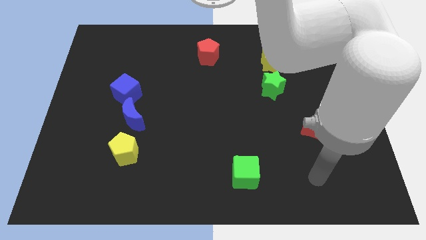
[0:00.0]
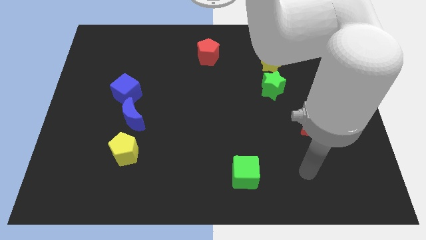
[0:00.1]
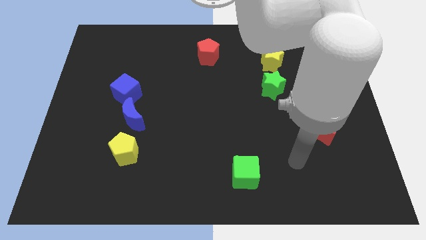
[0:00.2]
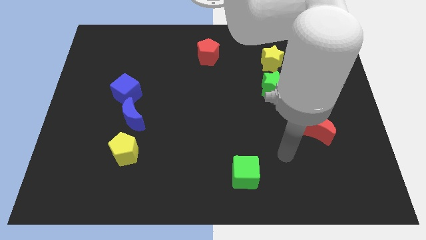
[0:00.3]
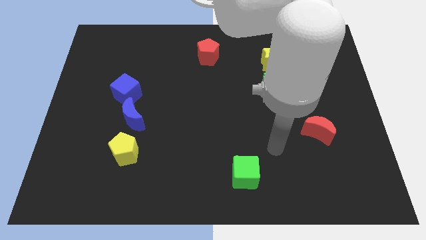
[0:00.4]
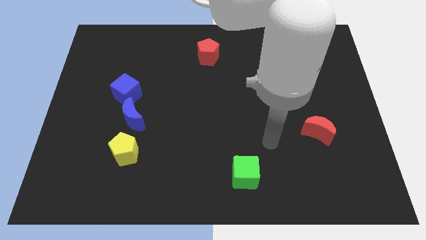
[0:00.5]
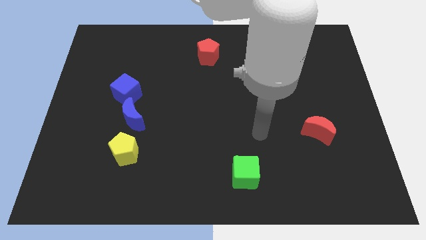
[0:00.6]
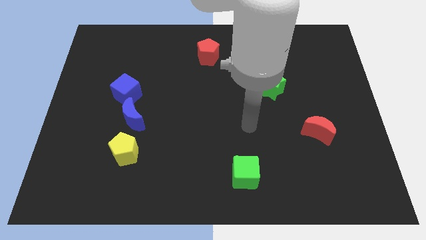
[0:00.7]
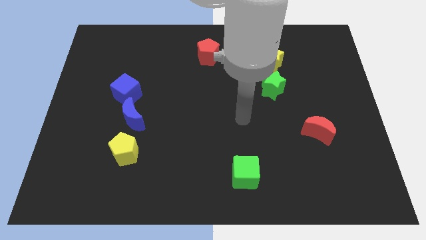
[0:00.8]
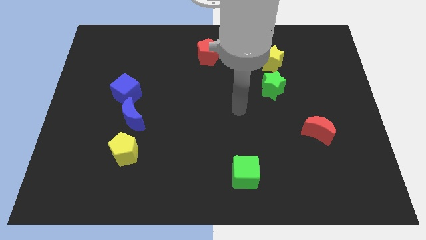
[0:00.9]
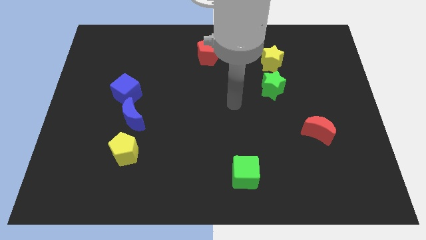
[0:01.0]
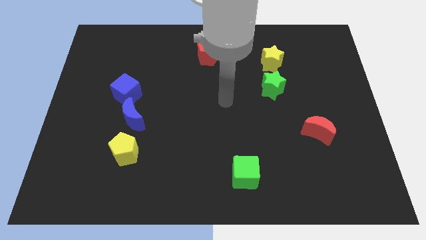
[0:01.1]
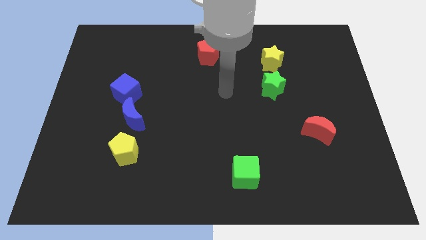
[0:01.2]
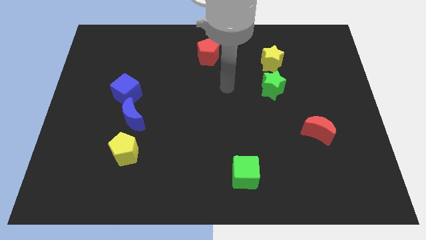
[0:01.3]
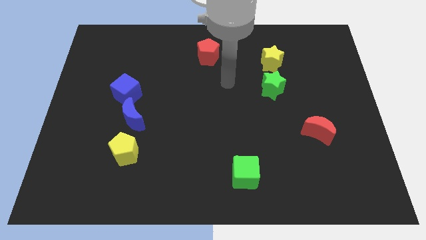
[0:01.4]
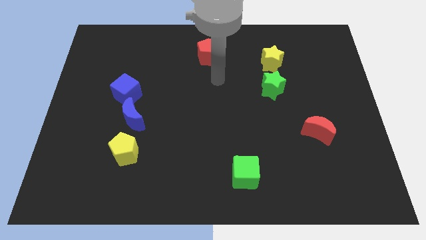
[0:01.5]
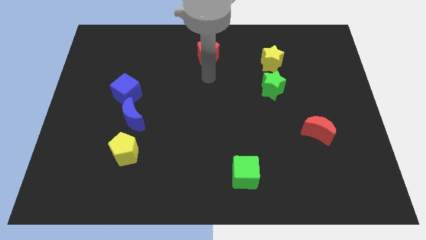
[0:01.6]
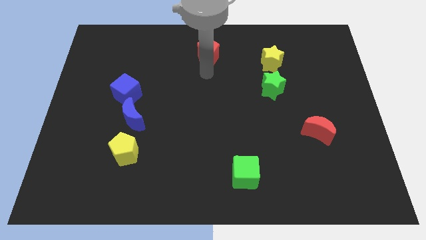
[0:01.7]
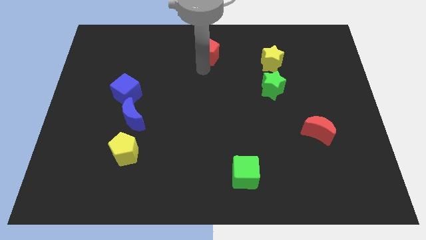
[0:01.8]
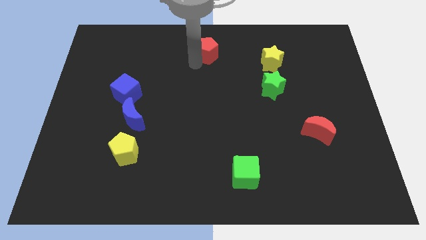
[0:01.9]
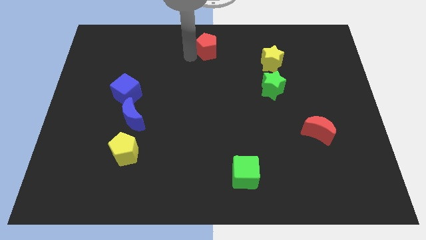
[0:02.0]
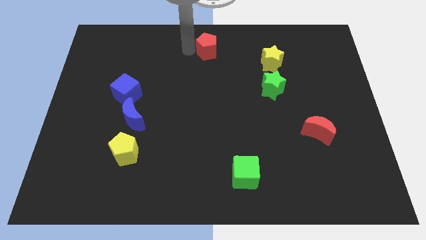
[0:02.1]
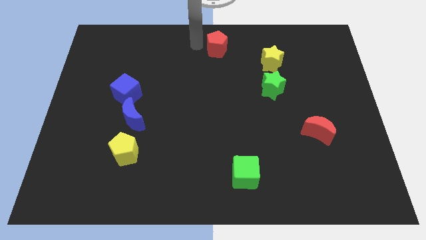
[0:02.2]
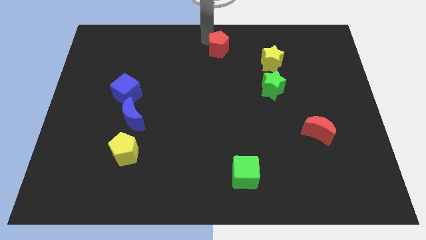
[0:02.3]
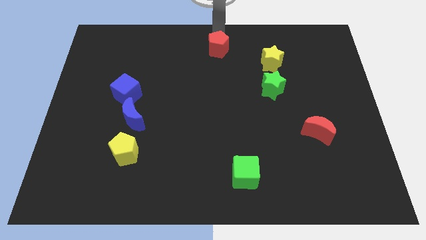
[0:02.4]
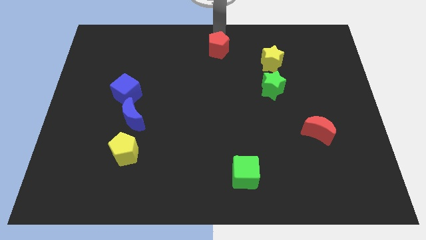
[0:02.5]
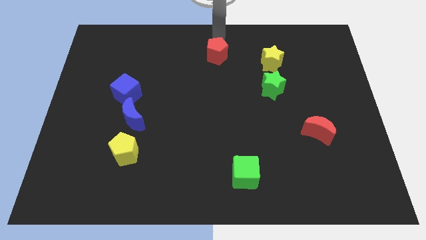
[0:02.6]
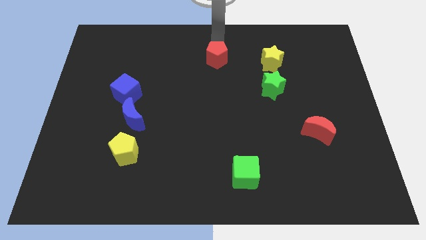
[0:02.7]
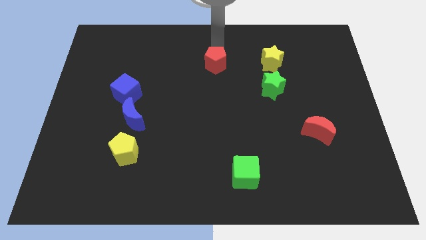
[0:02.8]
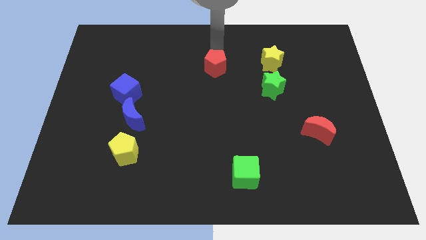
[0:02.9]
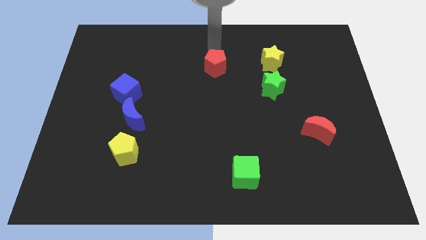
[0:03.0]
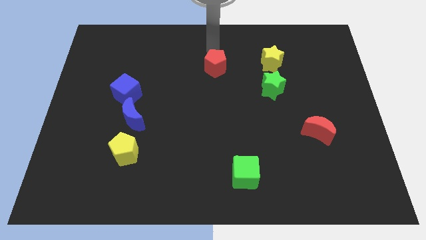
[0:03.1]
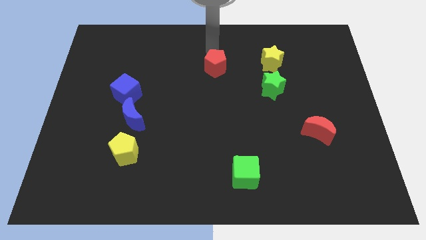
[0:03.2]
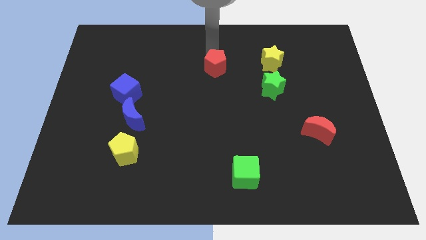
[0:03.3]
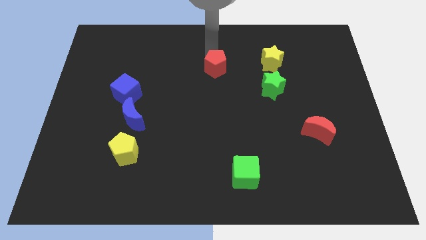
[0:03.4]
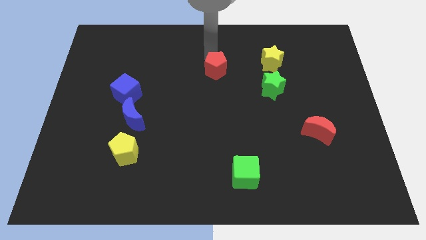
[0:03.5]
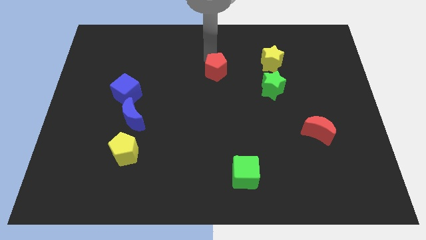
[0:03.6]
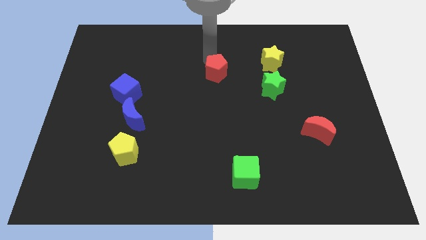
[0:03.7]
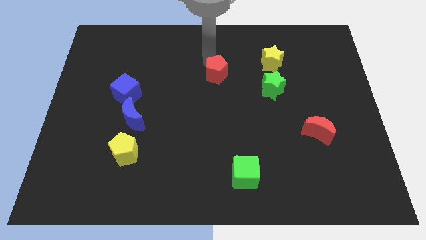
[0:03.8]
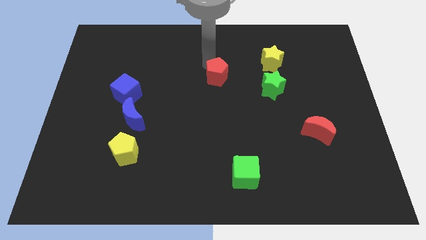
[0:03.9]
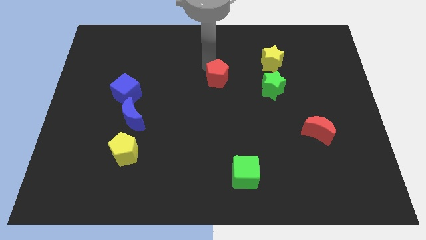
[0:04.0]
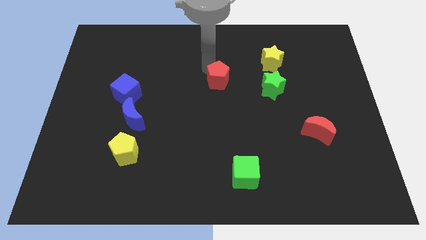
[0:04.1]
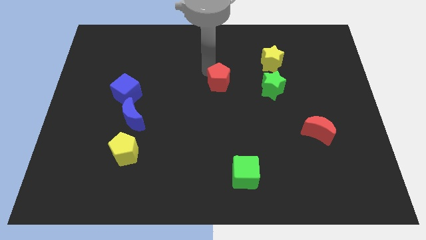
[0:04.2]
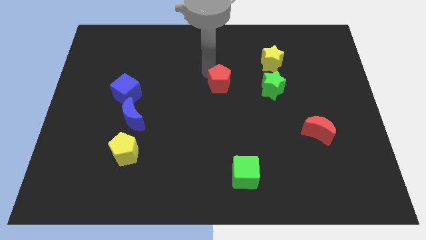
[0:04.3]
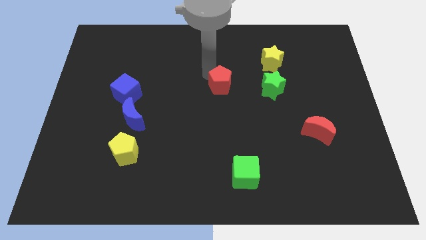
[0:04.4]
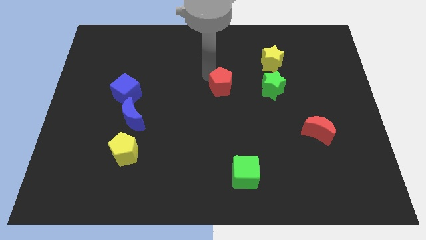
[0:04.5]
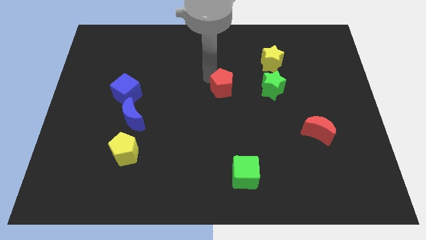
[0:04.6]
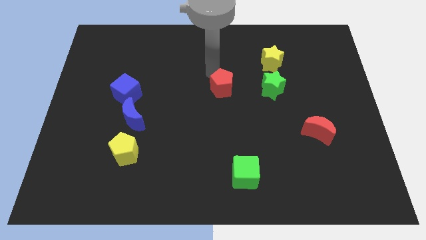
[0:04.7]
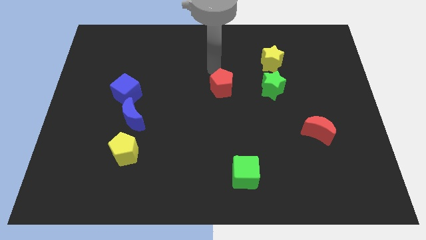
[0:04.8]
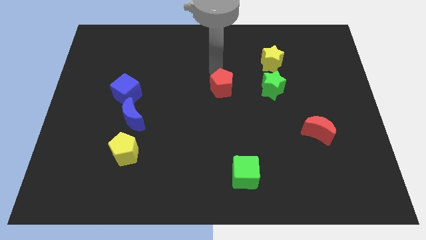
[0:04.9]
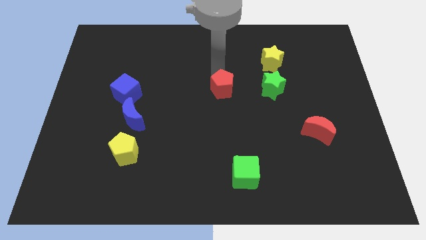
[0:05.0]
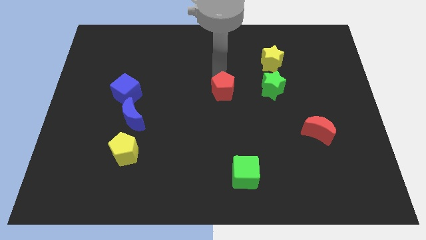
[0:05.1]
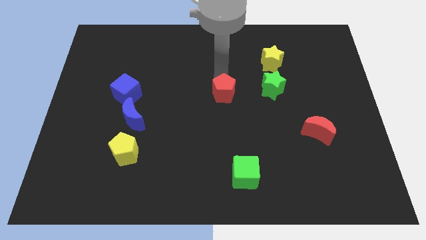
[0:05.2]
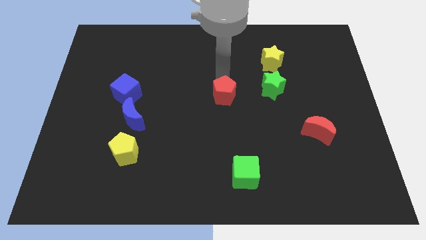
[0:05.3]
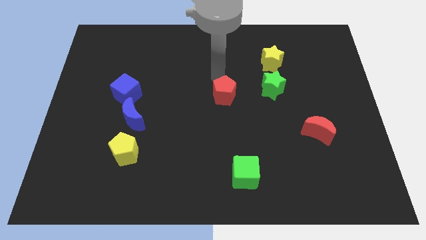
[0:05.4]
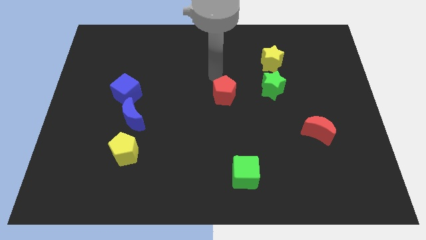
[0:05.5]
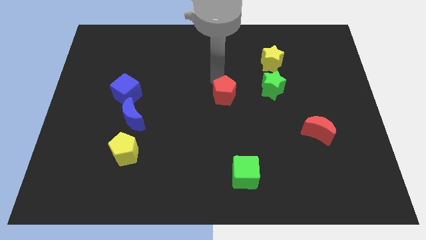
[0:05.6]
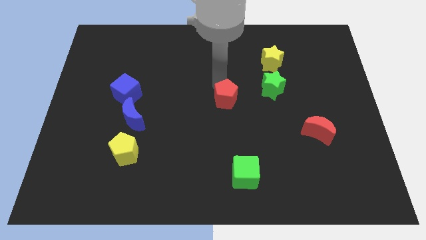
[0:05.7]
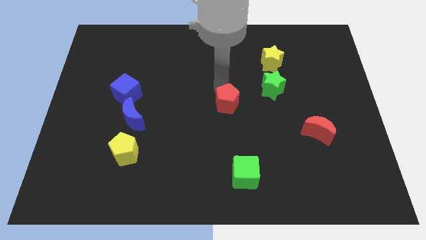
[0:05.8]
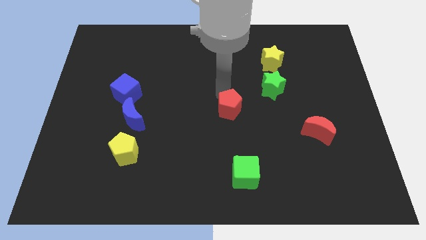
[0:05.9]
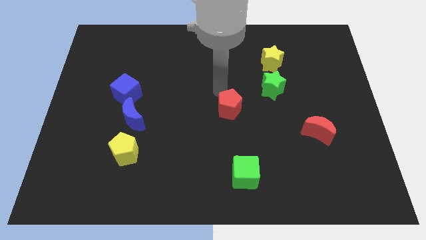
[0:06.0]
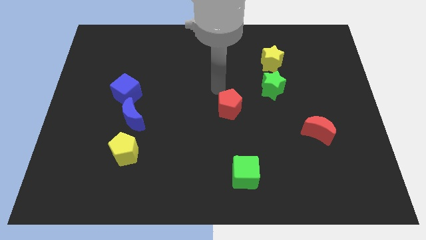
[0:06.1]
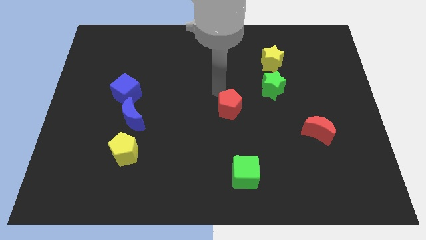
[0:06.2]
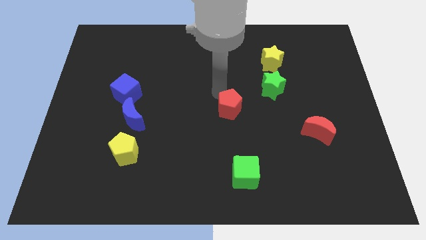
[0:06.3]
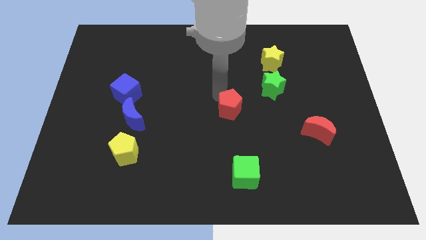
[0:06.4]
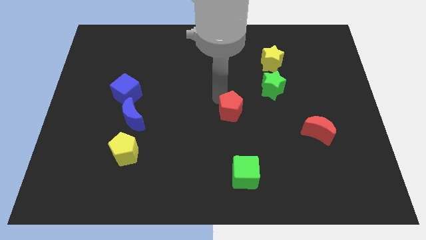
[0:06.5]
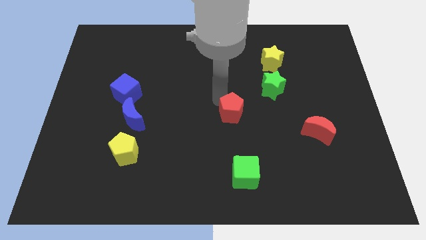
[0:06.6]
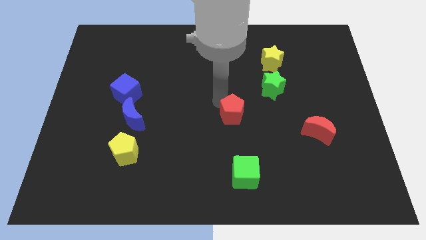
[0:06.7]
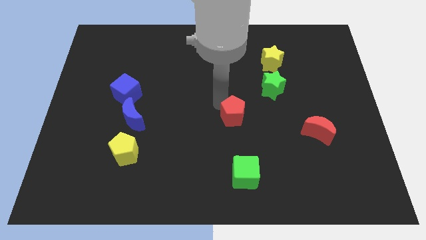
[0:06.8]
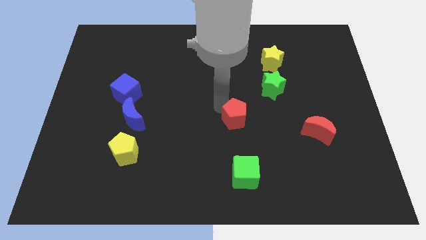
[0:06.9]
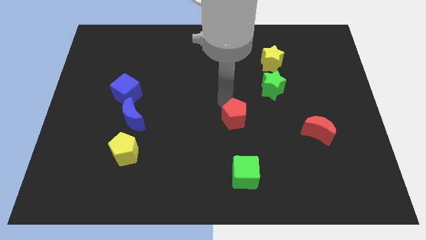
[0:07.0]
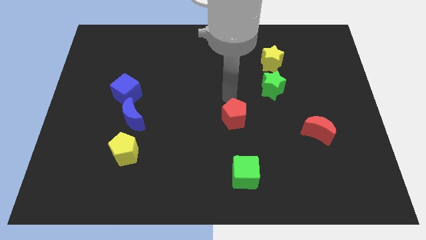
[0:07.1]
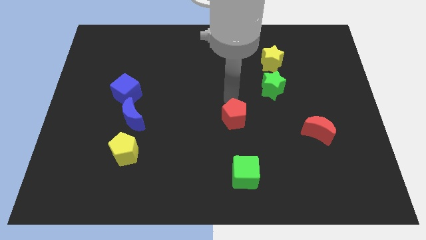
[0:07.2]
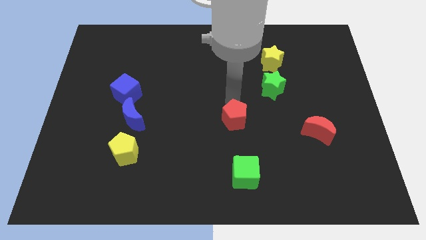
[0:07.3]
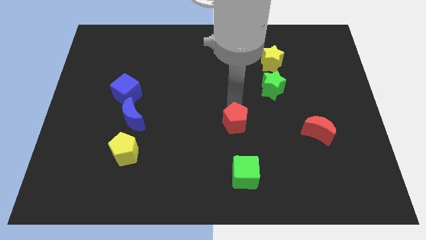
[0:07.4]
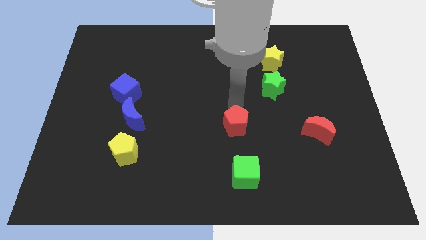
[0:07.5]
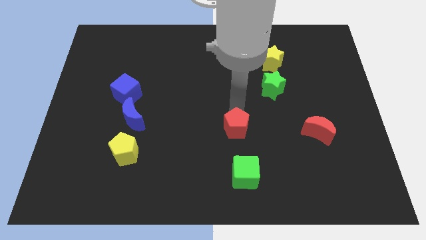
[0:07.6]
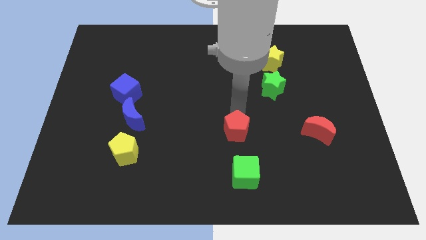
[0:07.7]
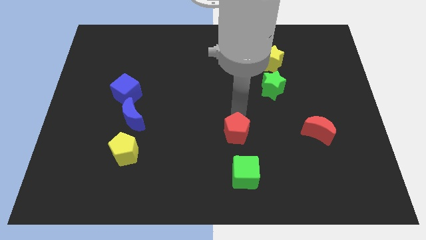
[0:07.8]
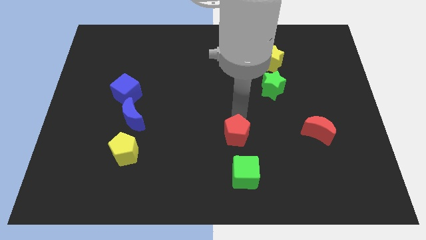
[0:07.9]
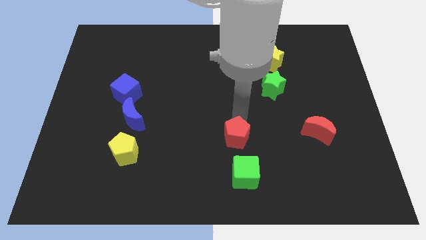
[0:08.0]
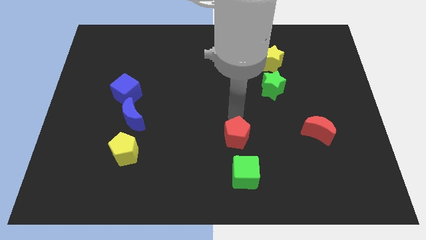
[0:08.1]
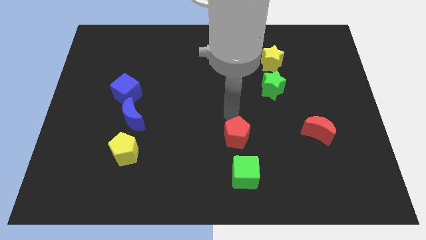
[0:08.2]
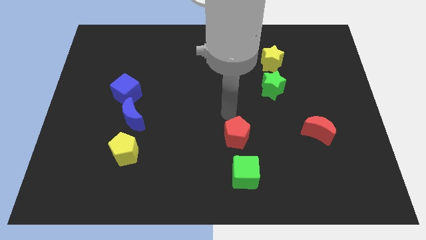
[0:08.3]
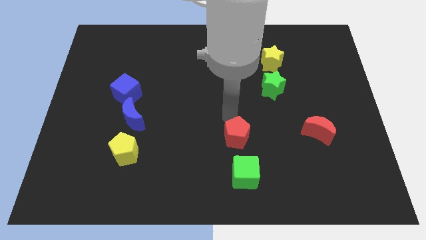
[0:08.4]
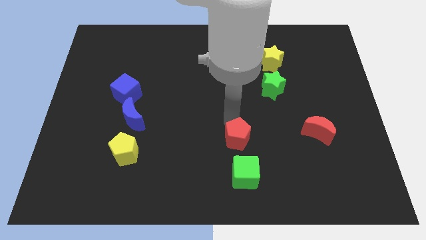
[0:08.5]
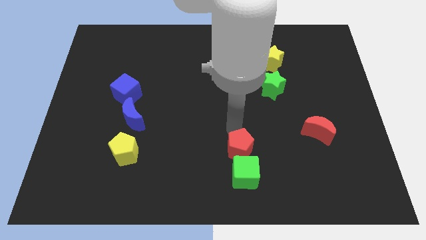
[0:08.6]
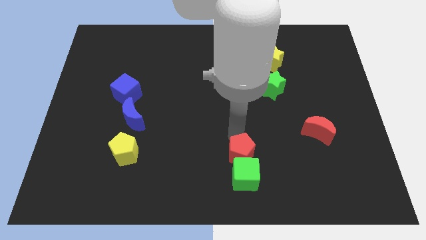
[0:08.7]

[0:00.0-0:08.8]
slide the red pentagon next to the green cube
